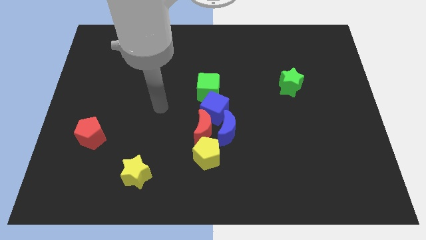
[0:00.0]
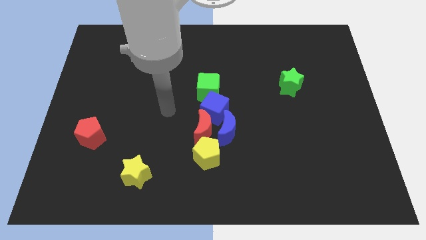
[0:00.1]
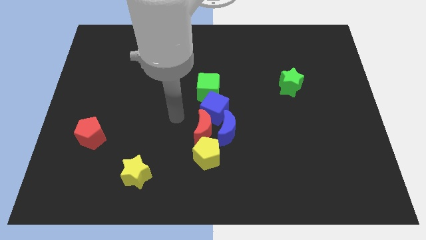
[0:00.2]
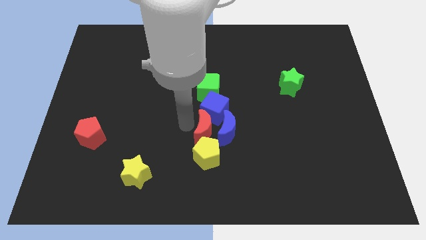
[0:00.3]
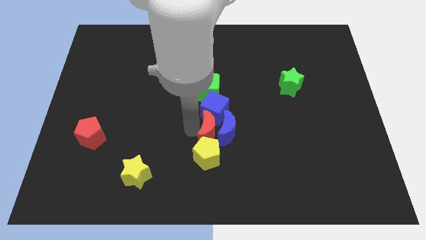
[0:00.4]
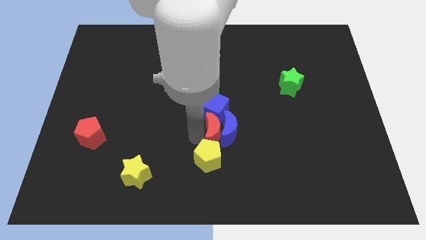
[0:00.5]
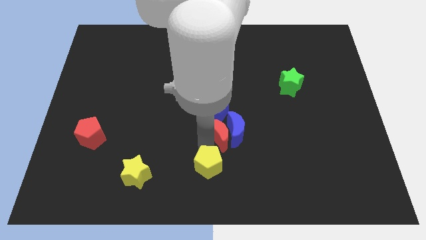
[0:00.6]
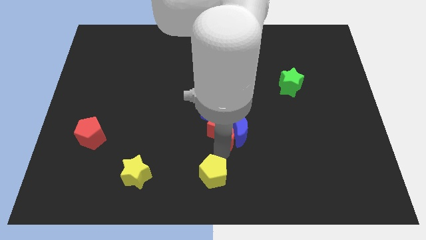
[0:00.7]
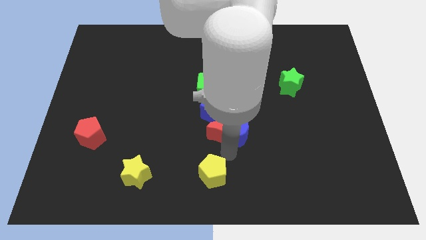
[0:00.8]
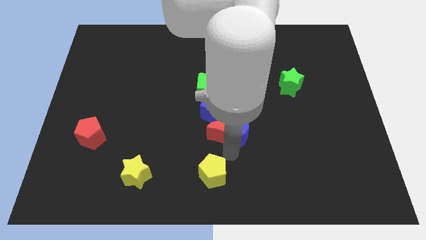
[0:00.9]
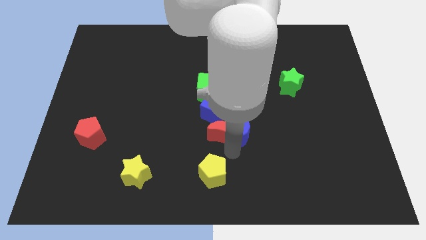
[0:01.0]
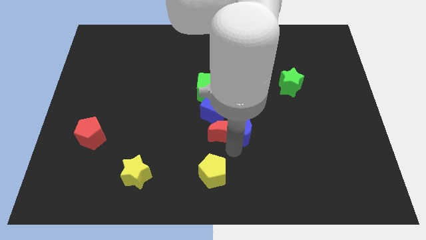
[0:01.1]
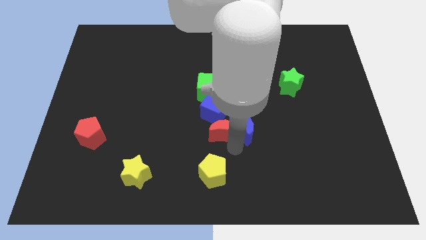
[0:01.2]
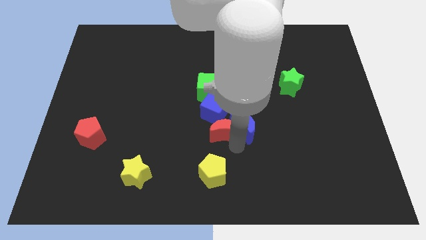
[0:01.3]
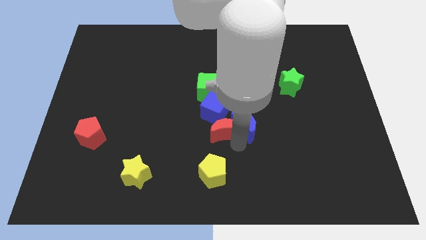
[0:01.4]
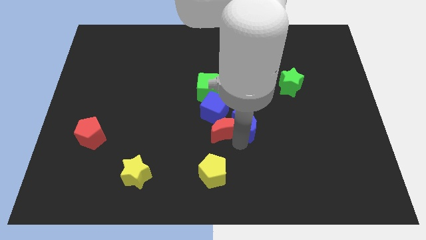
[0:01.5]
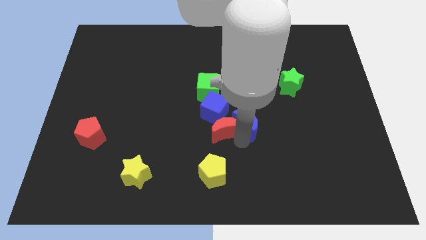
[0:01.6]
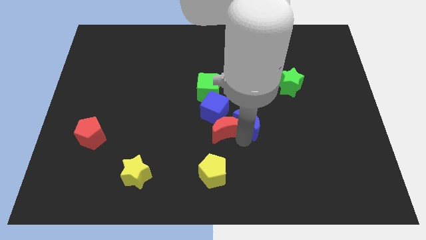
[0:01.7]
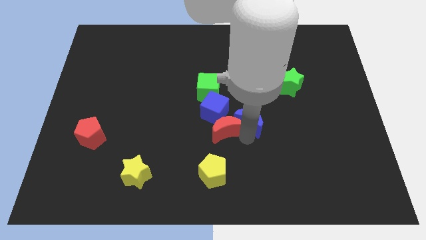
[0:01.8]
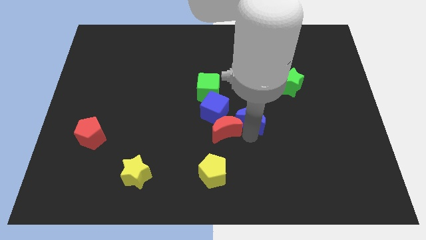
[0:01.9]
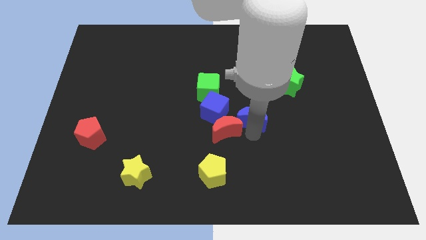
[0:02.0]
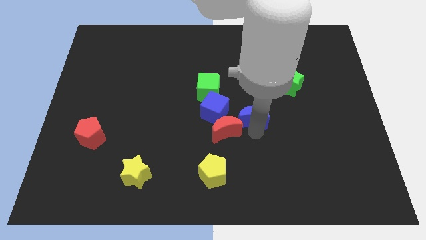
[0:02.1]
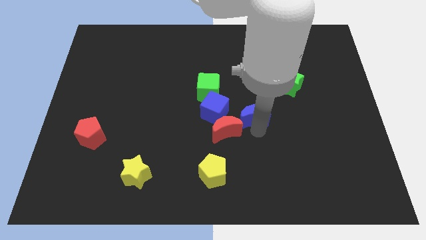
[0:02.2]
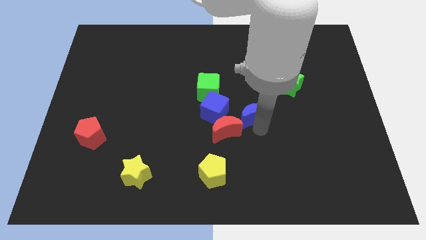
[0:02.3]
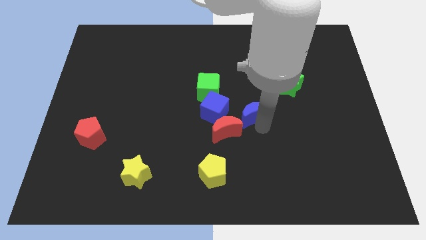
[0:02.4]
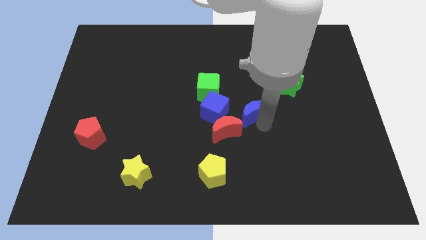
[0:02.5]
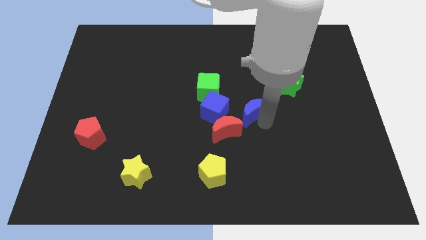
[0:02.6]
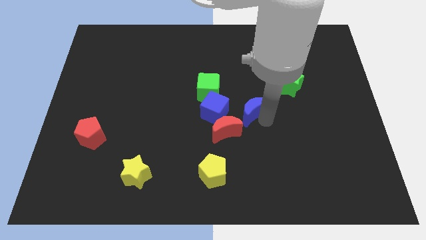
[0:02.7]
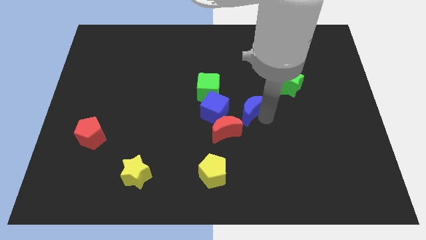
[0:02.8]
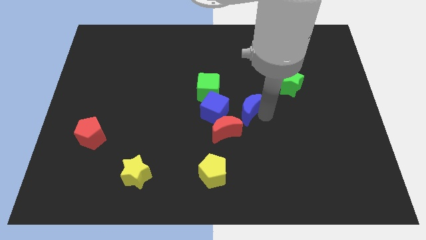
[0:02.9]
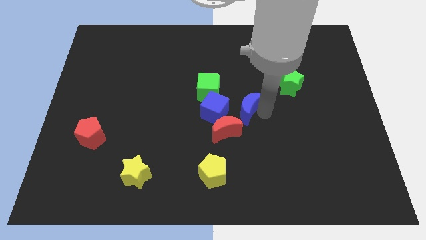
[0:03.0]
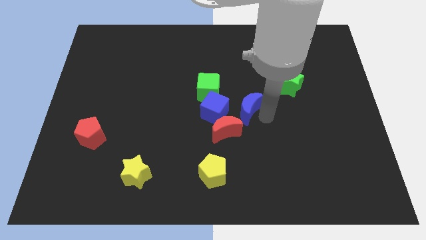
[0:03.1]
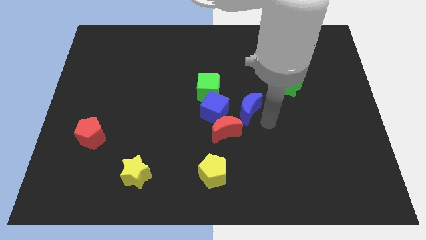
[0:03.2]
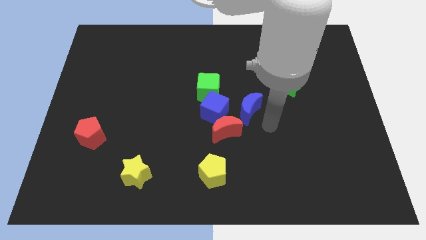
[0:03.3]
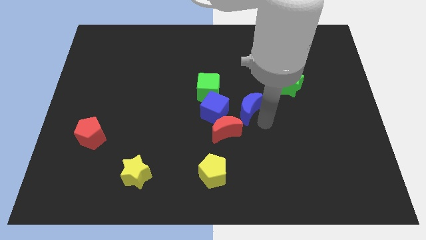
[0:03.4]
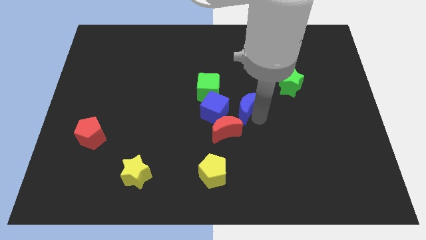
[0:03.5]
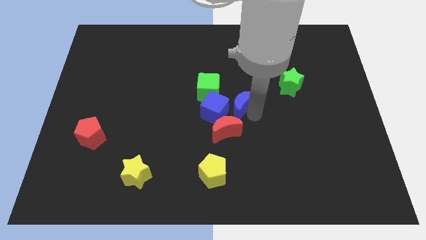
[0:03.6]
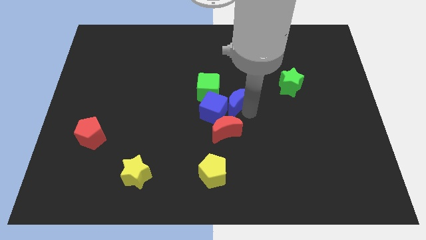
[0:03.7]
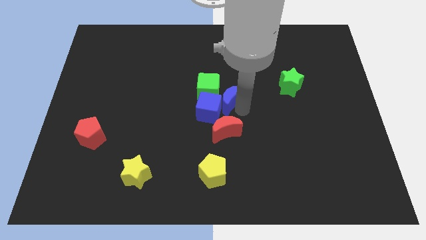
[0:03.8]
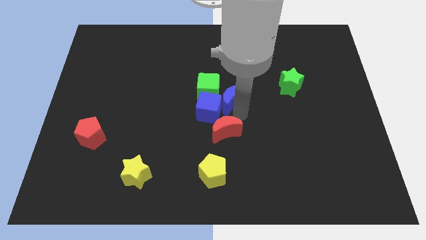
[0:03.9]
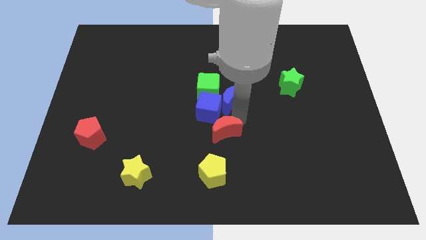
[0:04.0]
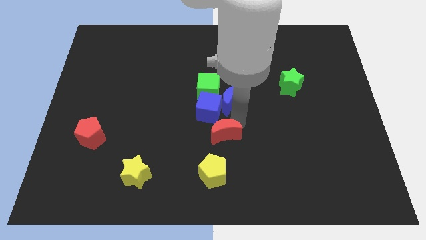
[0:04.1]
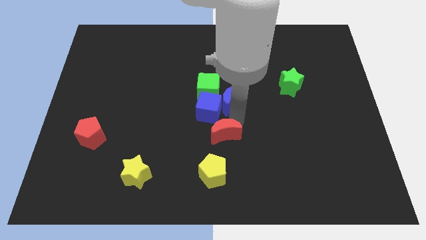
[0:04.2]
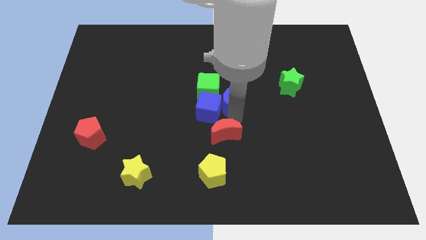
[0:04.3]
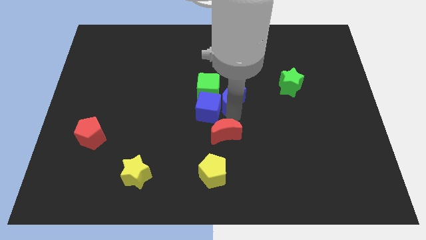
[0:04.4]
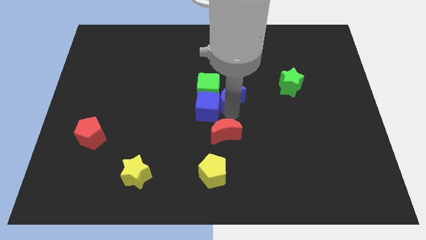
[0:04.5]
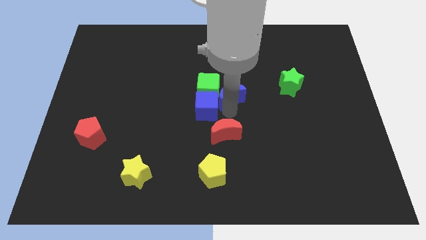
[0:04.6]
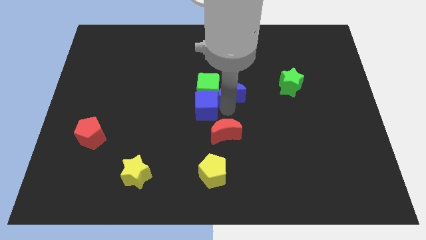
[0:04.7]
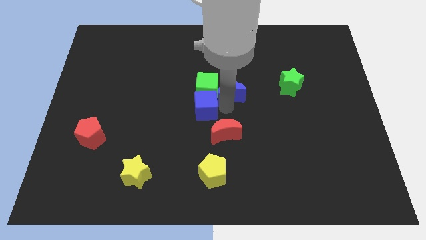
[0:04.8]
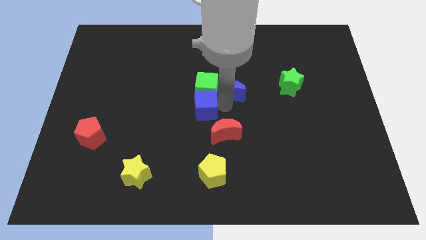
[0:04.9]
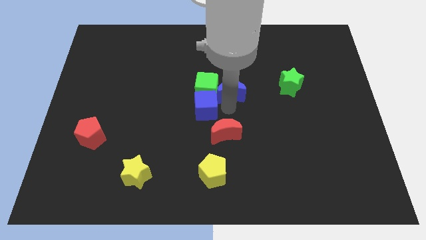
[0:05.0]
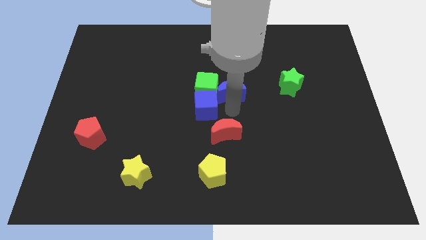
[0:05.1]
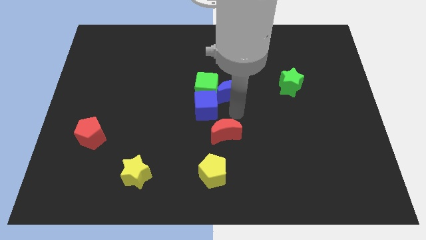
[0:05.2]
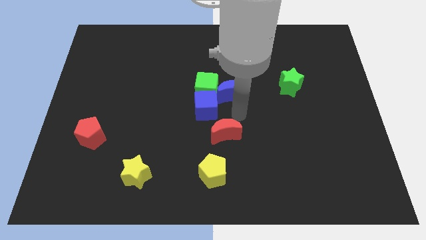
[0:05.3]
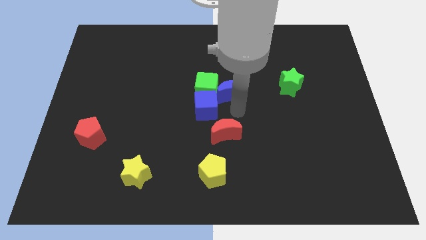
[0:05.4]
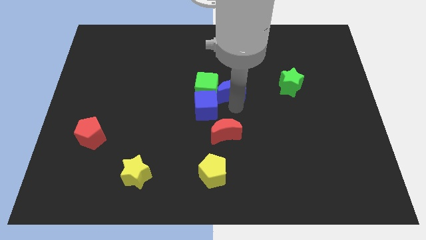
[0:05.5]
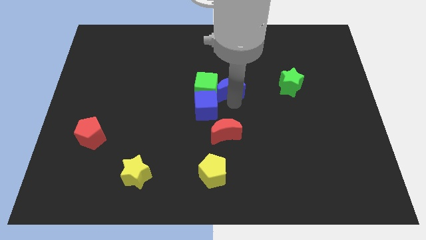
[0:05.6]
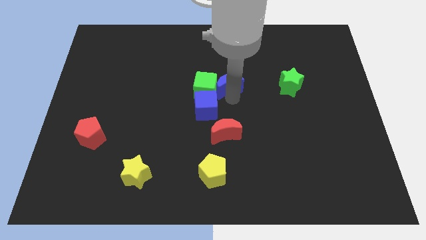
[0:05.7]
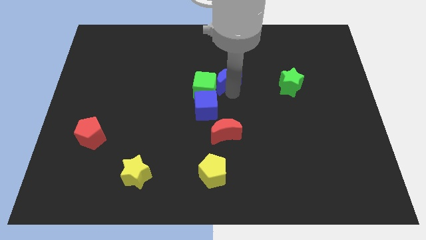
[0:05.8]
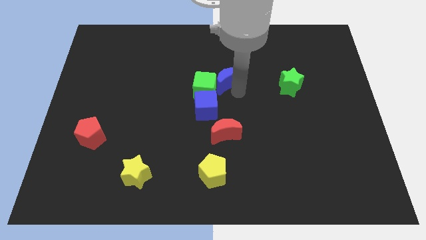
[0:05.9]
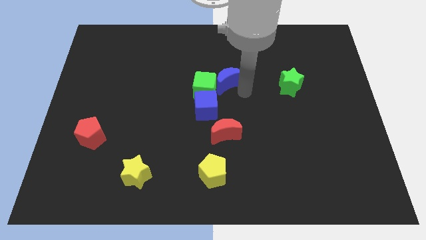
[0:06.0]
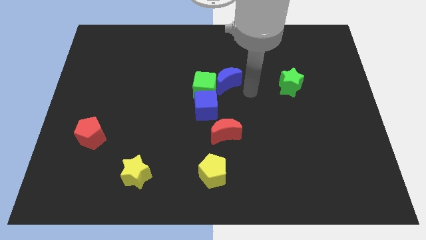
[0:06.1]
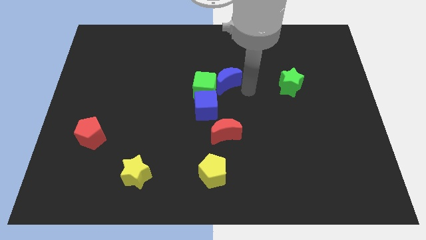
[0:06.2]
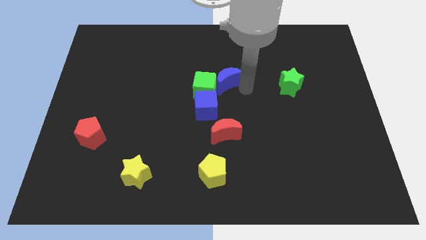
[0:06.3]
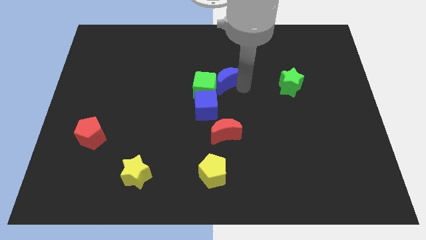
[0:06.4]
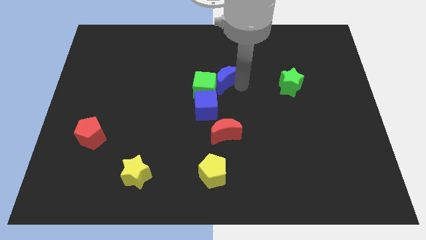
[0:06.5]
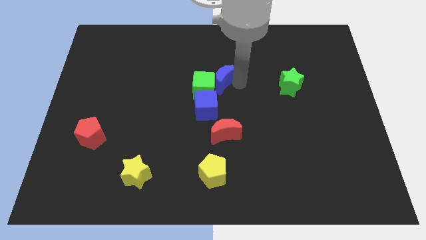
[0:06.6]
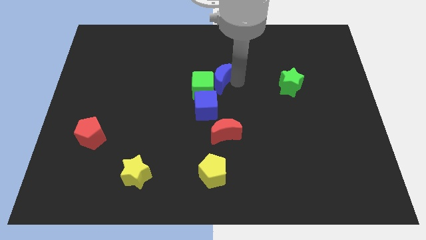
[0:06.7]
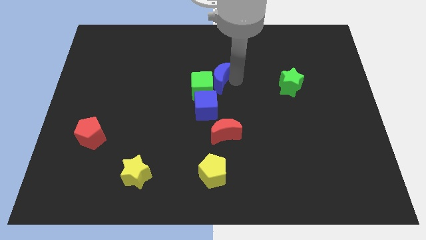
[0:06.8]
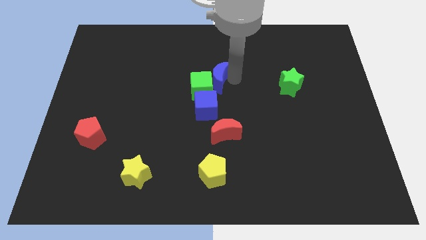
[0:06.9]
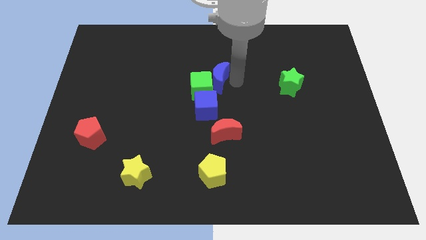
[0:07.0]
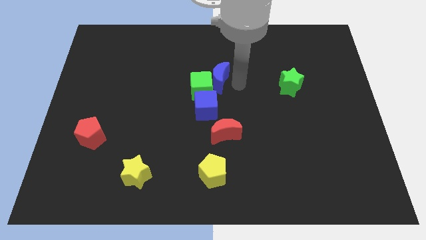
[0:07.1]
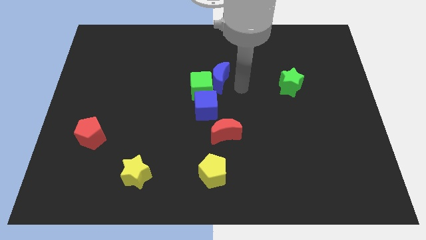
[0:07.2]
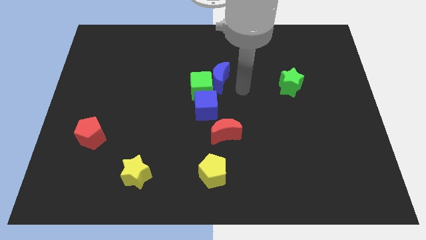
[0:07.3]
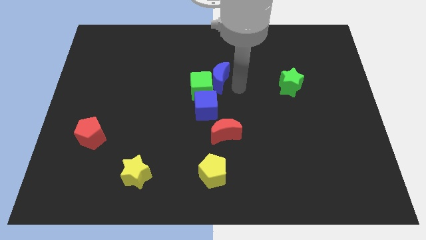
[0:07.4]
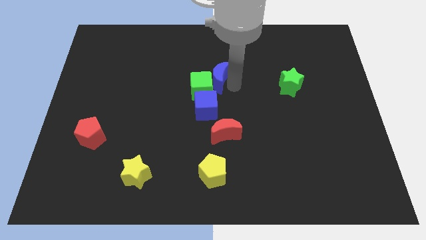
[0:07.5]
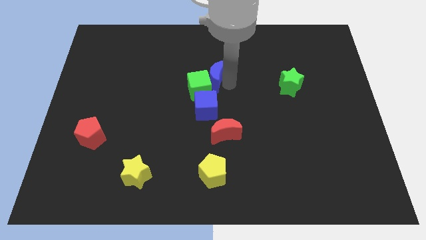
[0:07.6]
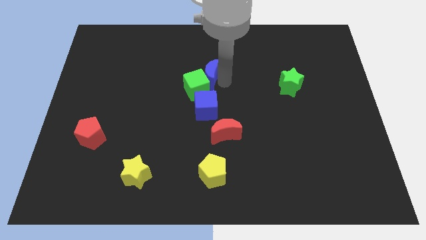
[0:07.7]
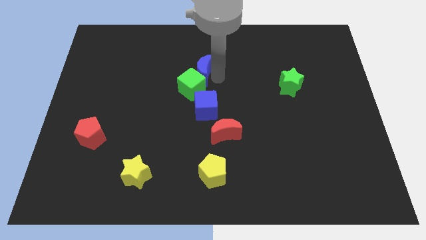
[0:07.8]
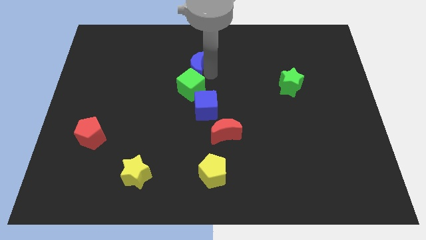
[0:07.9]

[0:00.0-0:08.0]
push the blue moon to the top left side of the green cube
